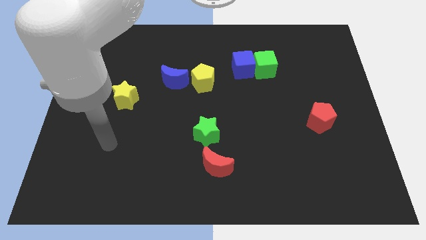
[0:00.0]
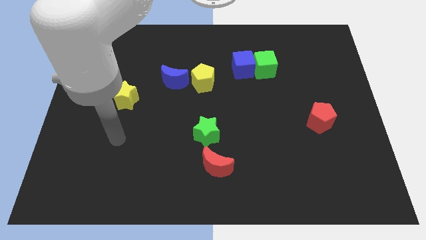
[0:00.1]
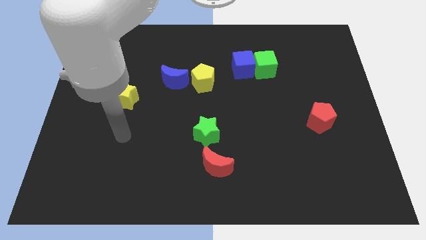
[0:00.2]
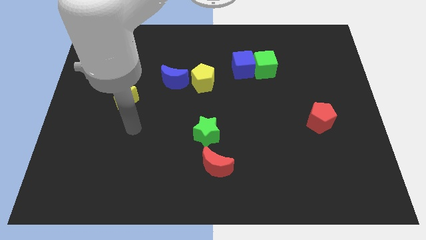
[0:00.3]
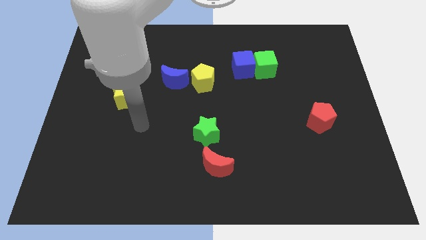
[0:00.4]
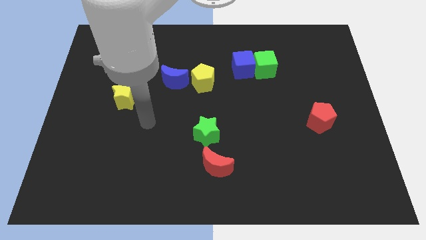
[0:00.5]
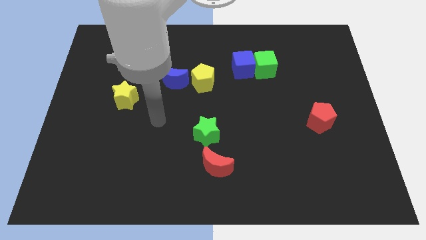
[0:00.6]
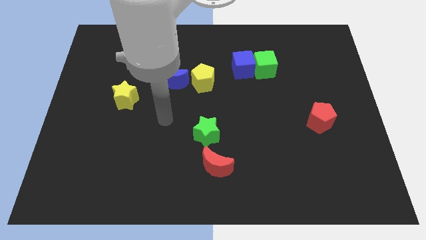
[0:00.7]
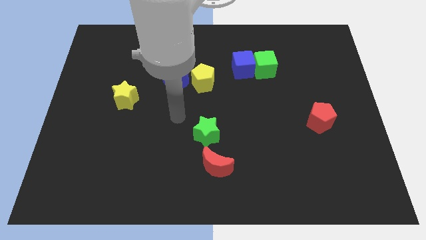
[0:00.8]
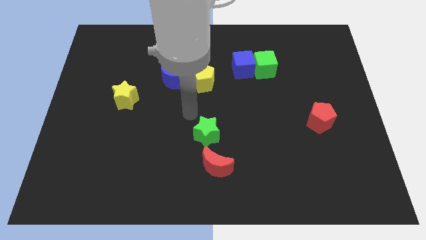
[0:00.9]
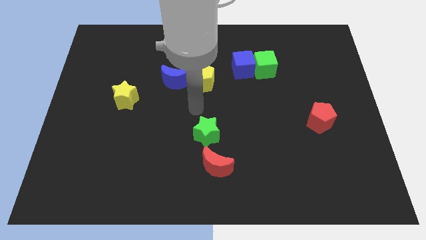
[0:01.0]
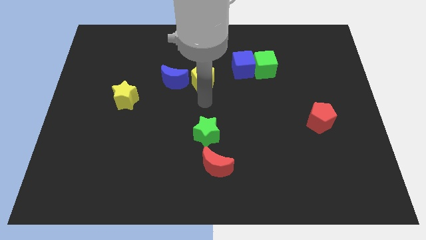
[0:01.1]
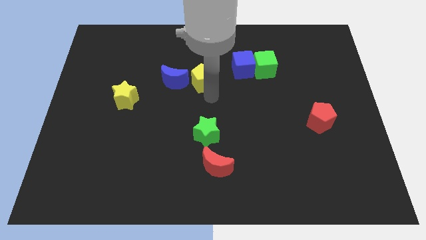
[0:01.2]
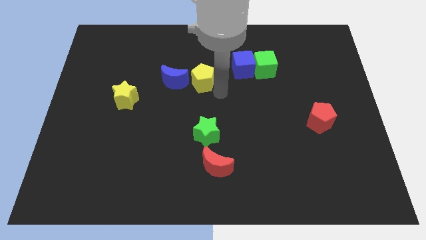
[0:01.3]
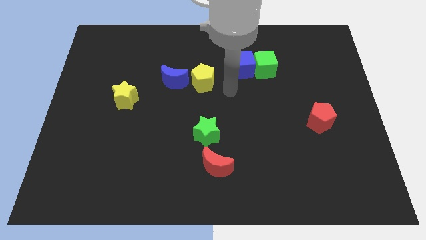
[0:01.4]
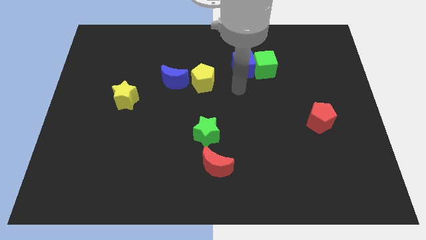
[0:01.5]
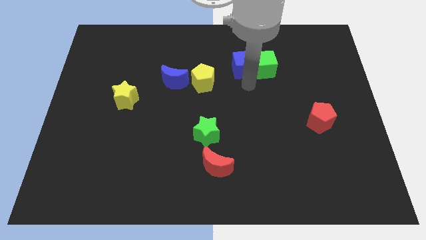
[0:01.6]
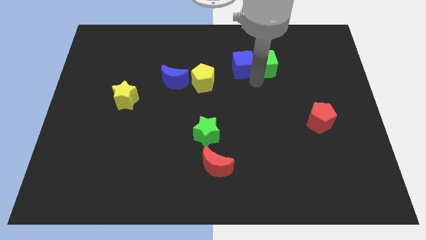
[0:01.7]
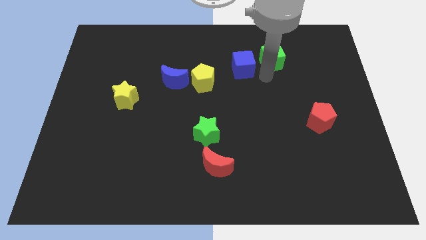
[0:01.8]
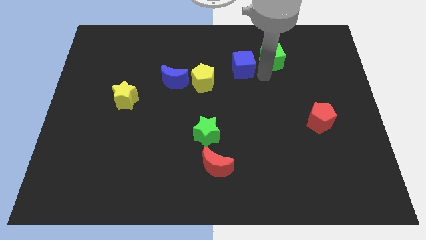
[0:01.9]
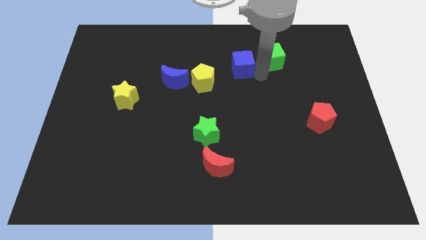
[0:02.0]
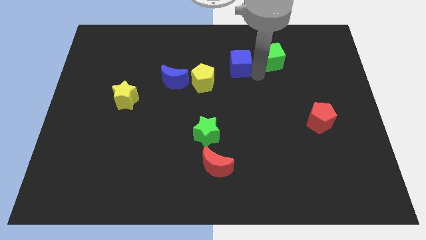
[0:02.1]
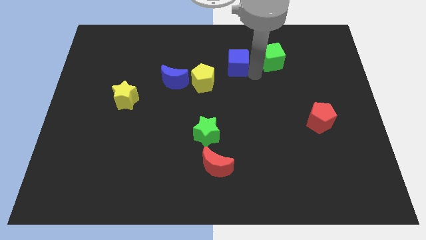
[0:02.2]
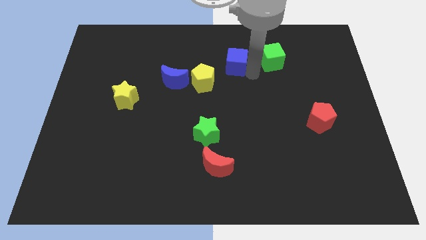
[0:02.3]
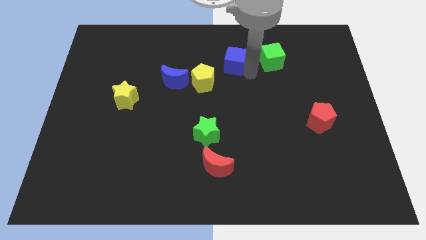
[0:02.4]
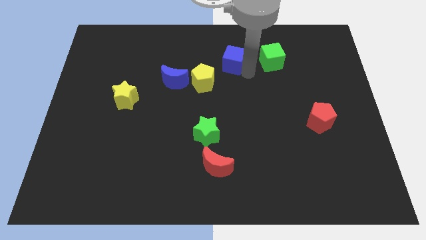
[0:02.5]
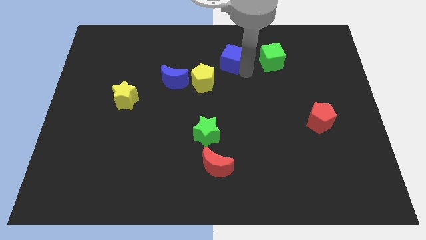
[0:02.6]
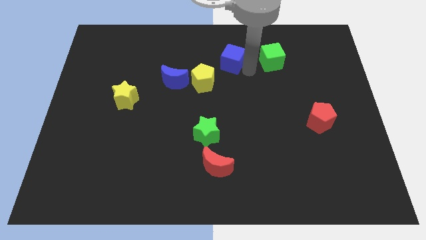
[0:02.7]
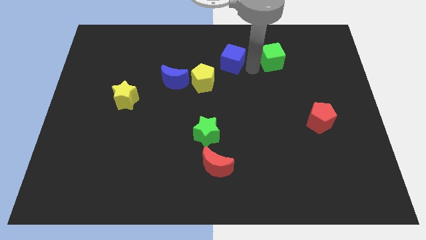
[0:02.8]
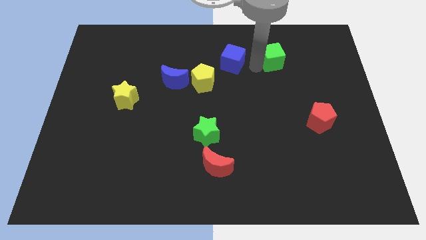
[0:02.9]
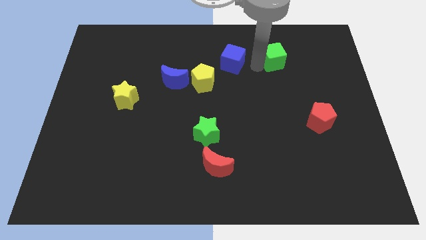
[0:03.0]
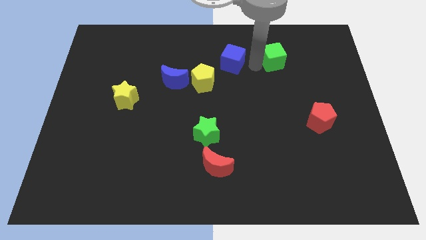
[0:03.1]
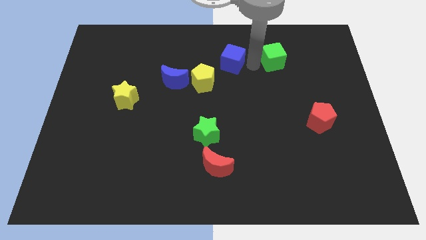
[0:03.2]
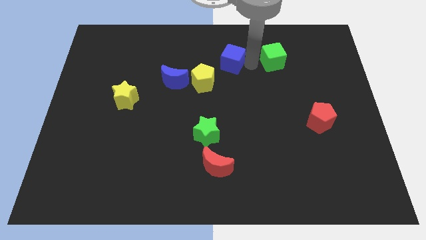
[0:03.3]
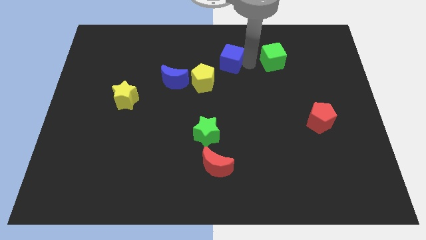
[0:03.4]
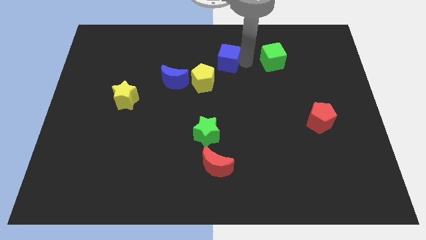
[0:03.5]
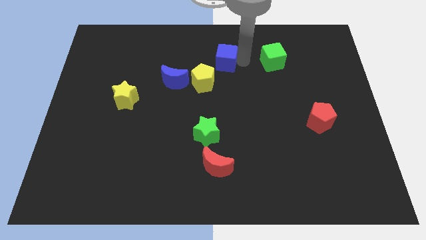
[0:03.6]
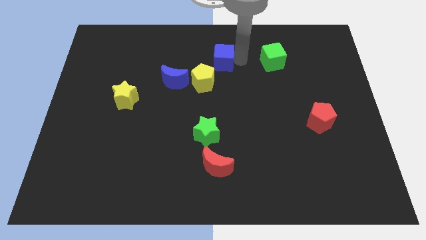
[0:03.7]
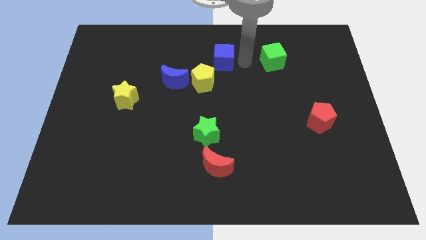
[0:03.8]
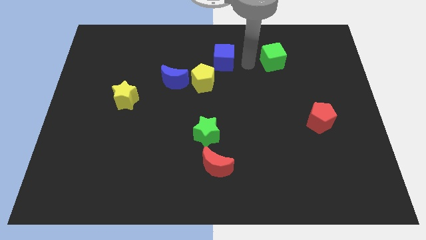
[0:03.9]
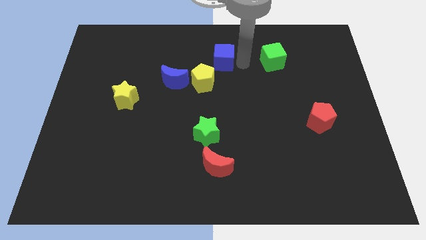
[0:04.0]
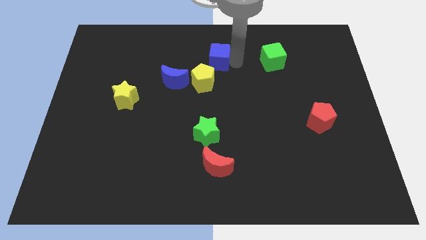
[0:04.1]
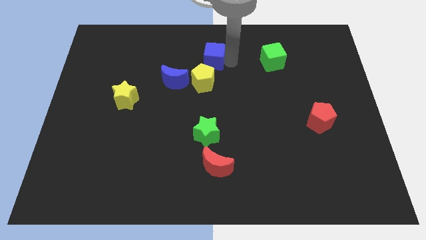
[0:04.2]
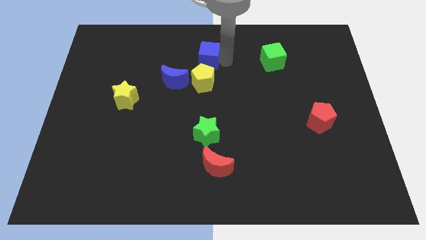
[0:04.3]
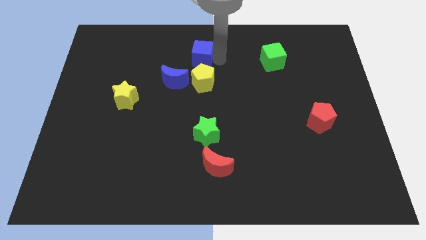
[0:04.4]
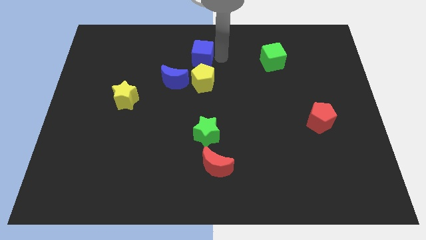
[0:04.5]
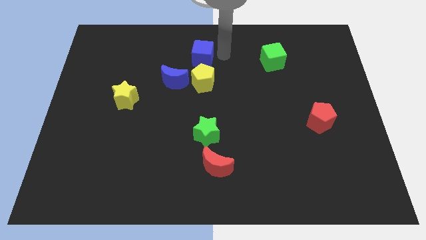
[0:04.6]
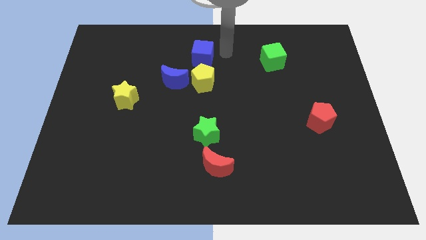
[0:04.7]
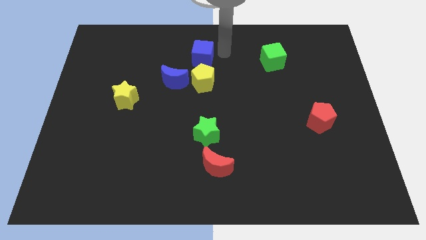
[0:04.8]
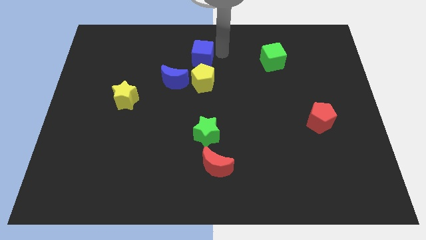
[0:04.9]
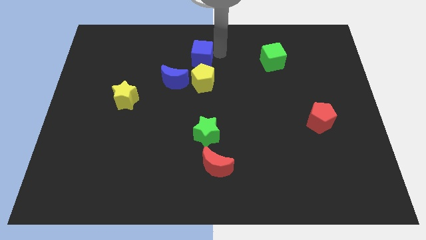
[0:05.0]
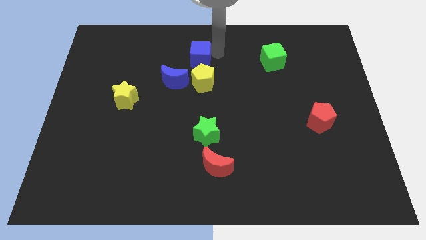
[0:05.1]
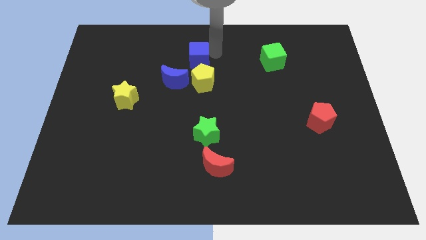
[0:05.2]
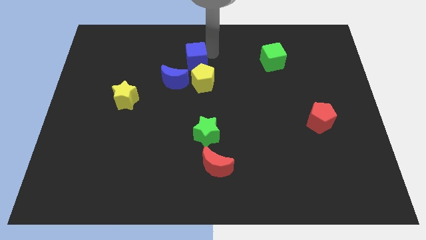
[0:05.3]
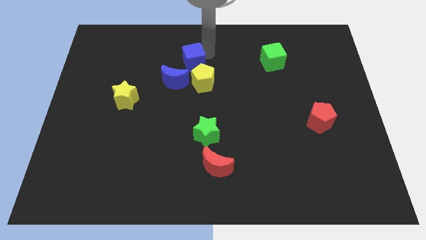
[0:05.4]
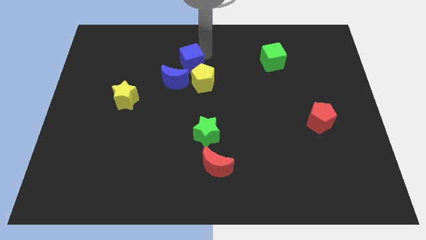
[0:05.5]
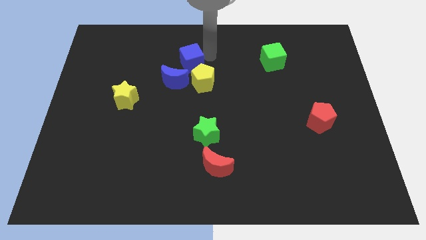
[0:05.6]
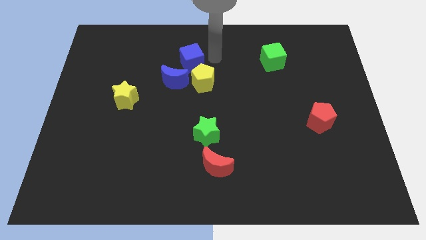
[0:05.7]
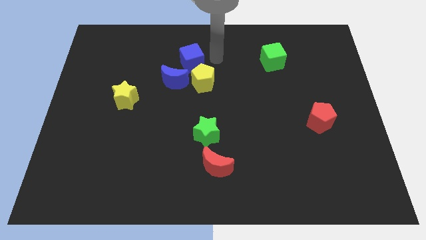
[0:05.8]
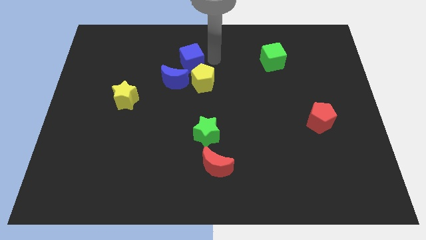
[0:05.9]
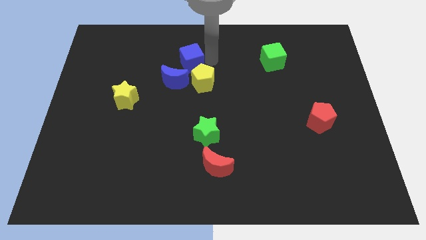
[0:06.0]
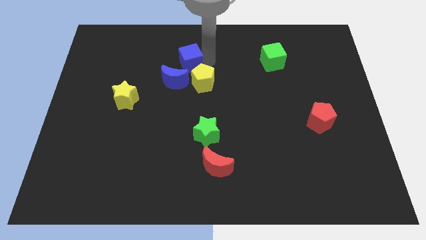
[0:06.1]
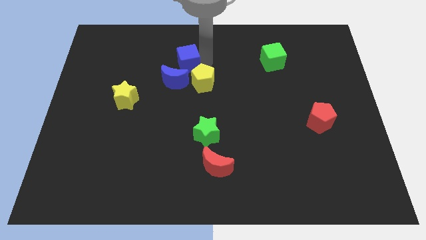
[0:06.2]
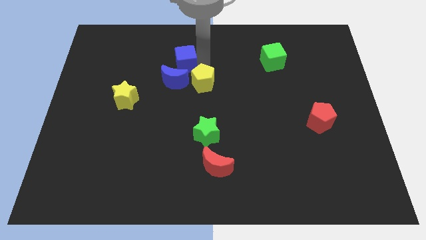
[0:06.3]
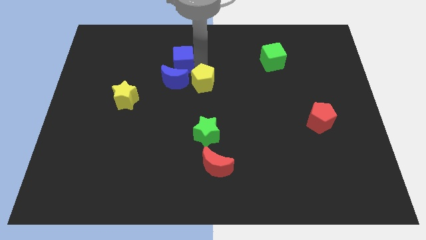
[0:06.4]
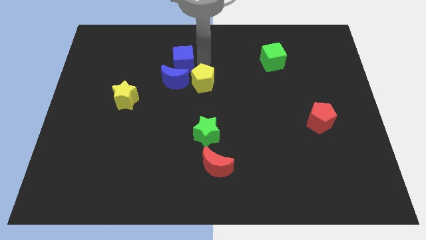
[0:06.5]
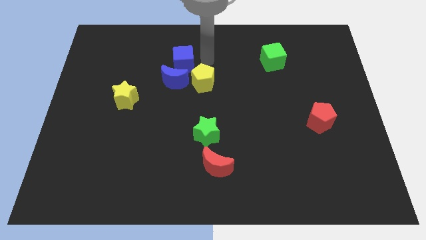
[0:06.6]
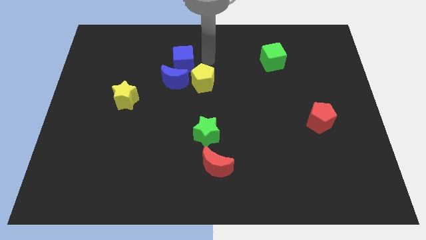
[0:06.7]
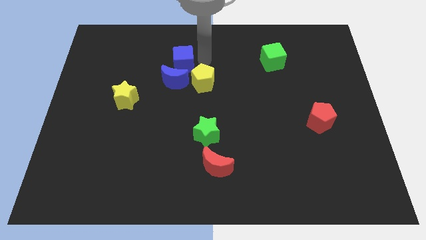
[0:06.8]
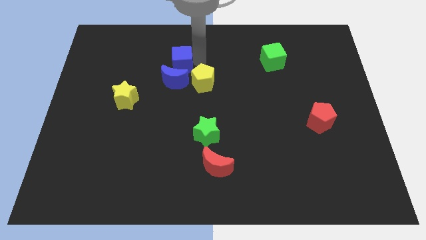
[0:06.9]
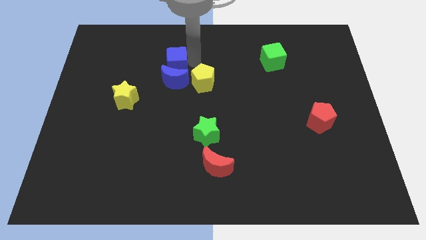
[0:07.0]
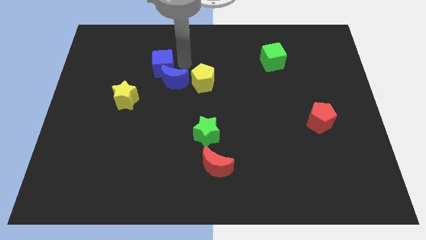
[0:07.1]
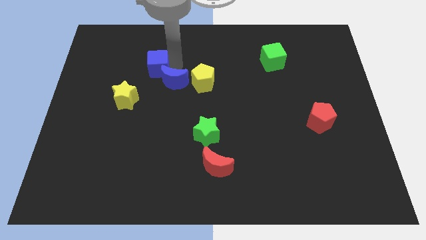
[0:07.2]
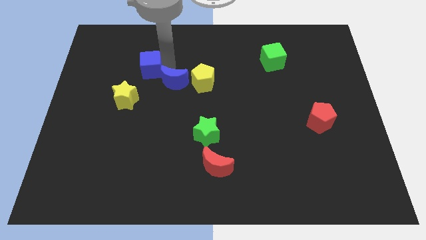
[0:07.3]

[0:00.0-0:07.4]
put the blue cube above the yellow star
